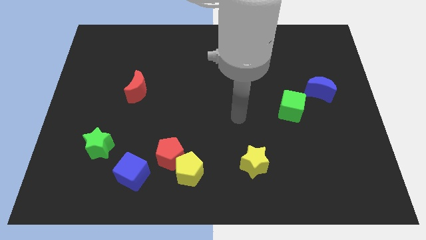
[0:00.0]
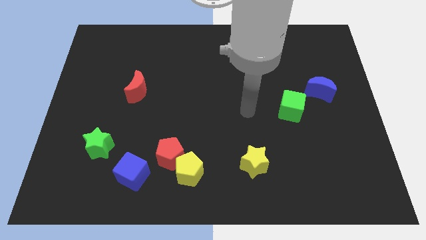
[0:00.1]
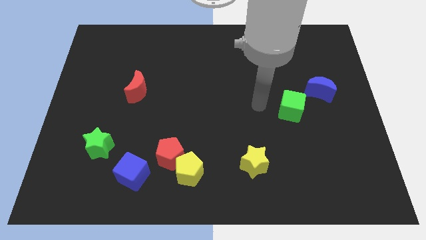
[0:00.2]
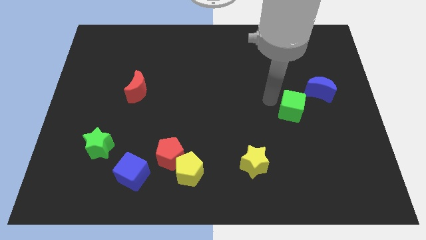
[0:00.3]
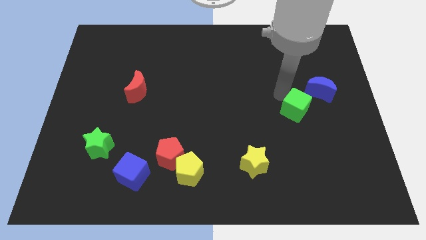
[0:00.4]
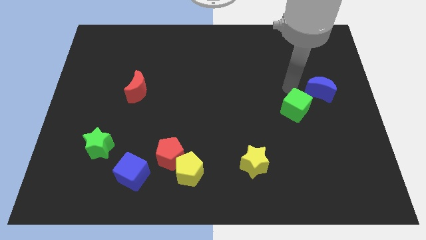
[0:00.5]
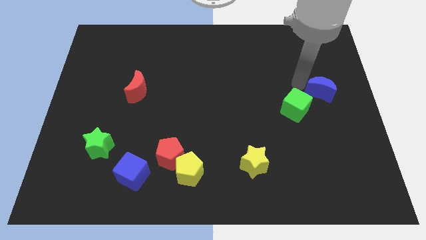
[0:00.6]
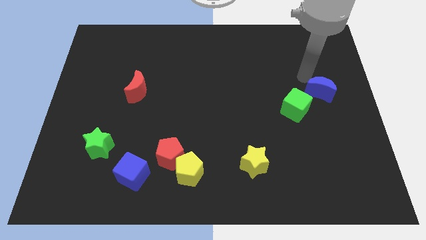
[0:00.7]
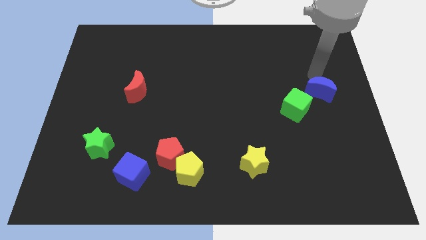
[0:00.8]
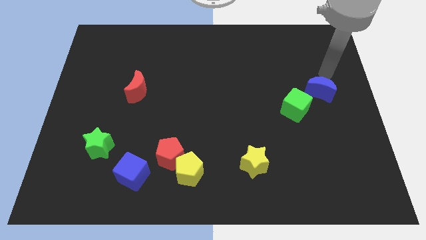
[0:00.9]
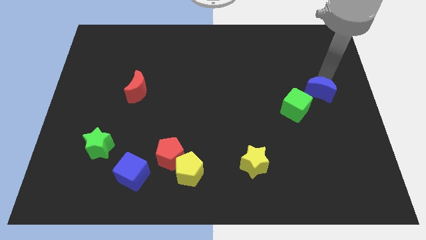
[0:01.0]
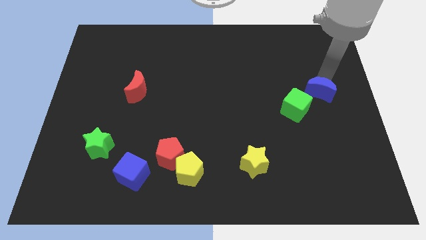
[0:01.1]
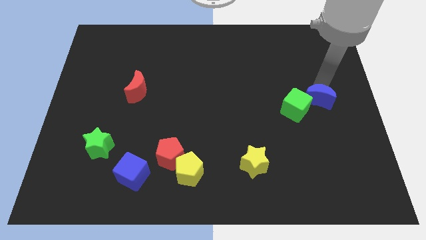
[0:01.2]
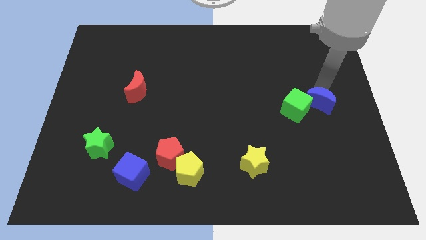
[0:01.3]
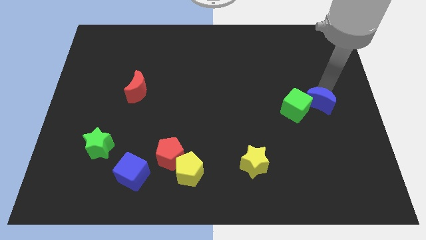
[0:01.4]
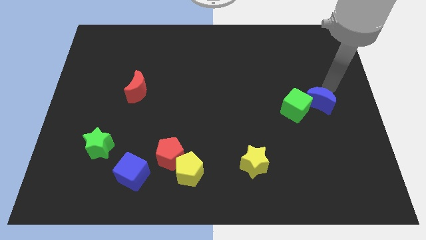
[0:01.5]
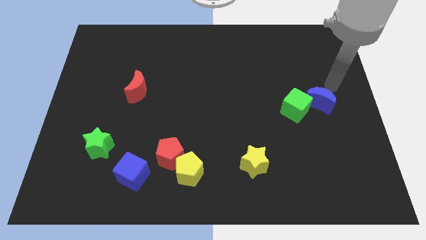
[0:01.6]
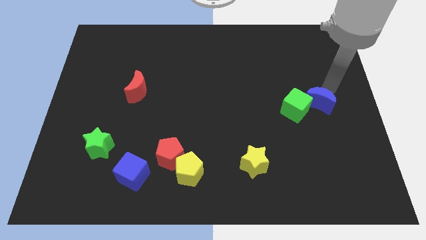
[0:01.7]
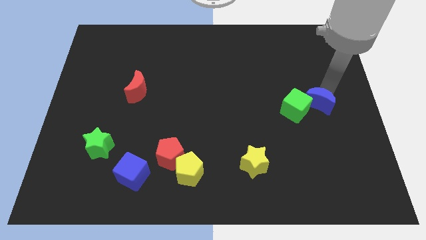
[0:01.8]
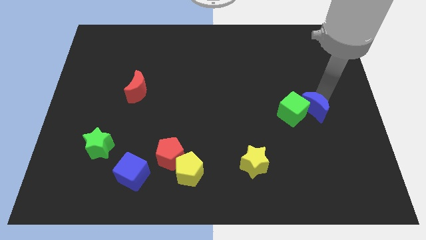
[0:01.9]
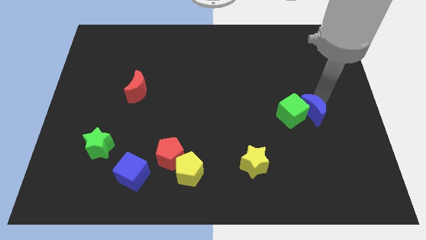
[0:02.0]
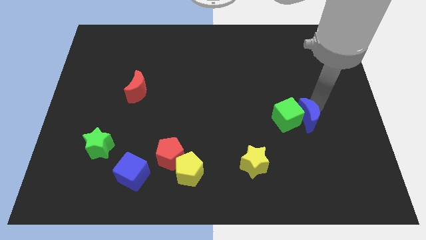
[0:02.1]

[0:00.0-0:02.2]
slightly move the blue moon down and to the left

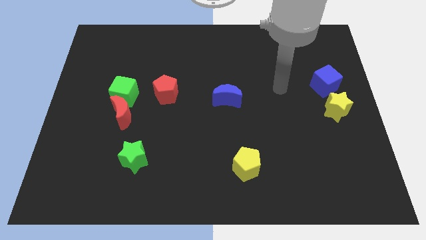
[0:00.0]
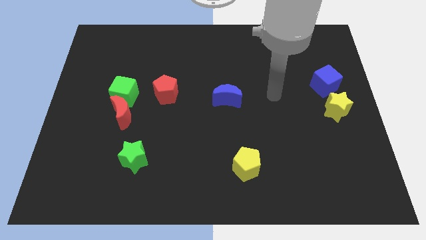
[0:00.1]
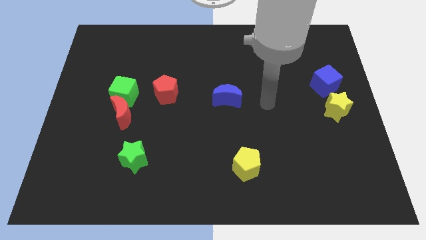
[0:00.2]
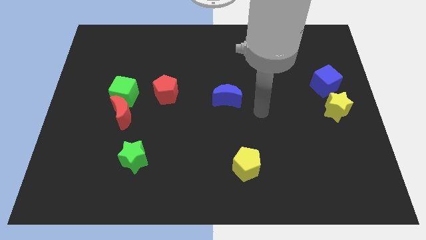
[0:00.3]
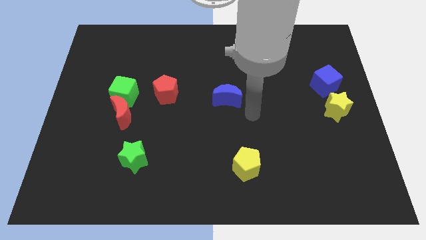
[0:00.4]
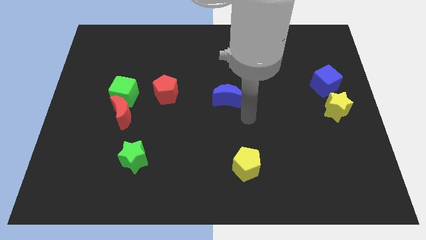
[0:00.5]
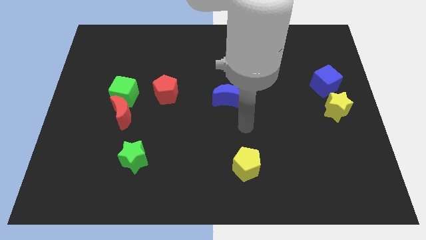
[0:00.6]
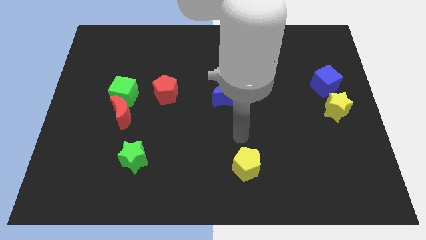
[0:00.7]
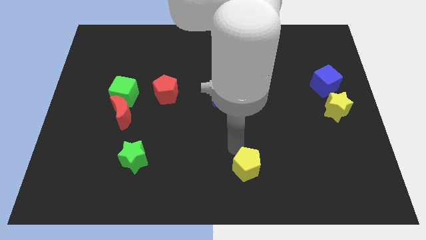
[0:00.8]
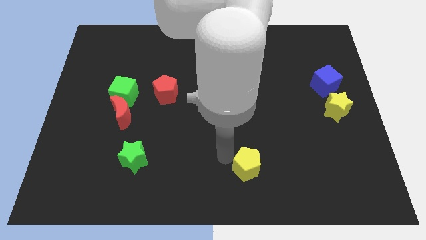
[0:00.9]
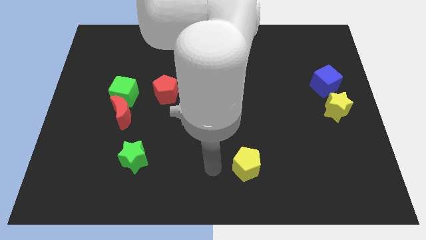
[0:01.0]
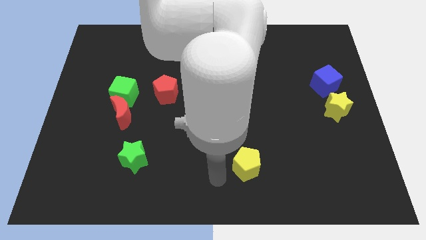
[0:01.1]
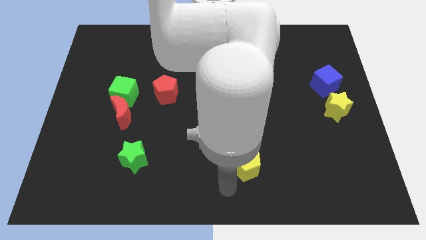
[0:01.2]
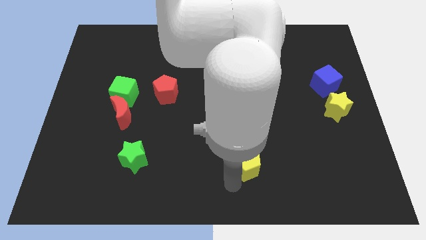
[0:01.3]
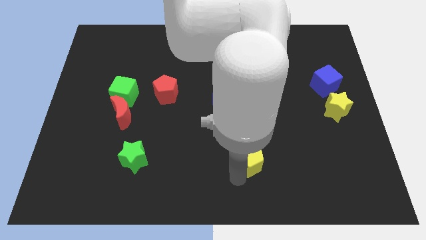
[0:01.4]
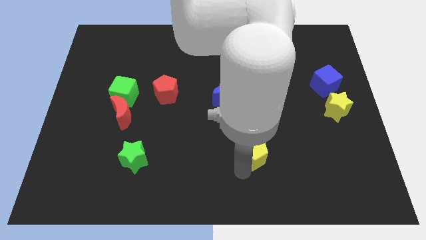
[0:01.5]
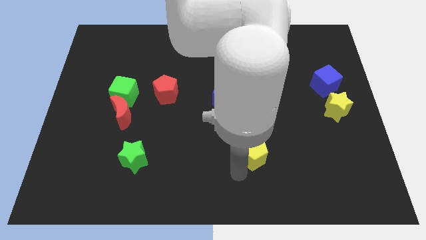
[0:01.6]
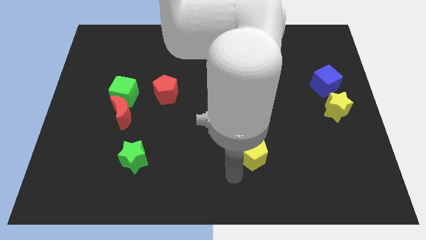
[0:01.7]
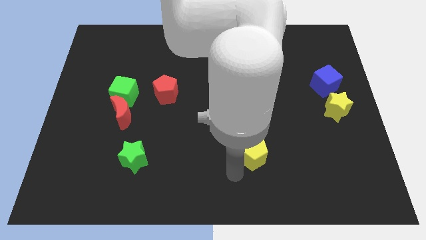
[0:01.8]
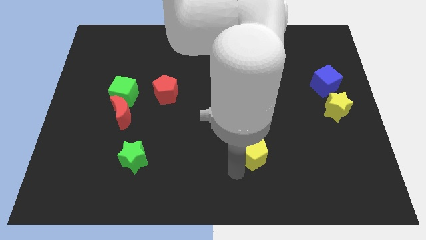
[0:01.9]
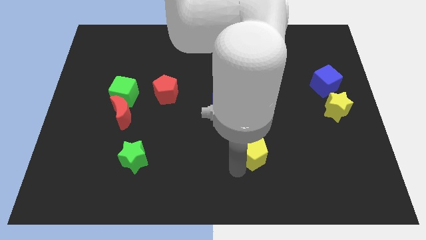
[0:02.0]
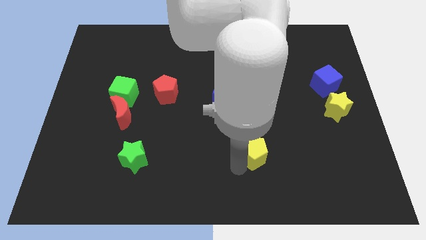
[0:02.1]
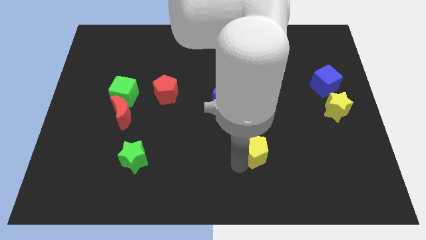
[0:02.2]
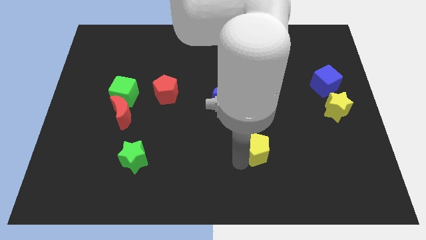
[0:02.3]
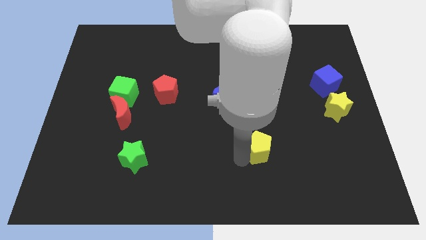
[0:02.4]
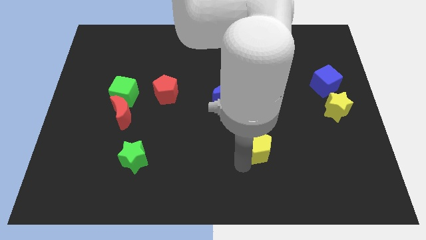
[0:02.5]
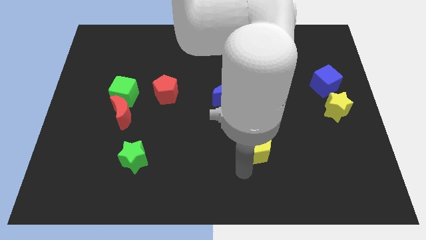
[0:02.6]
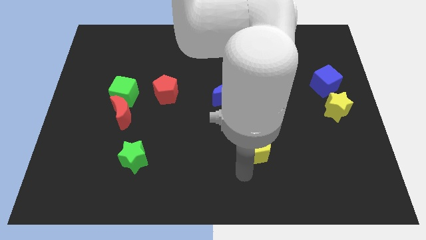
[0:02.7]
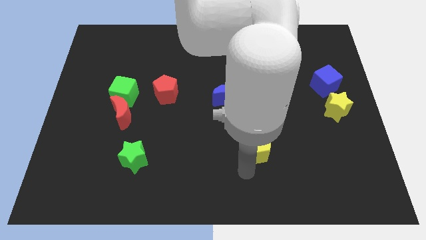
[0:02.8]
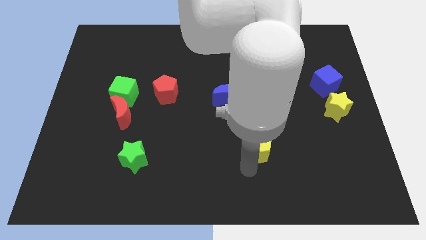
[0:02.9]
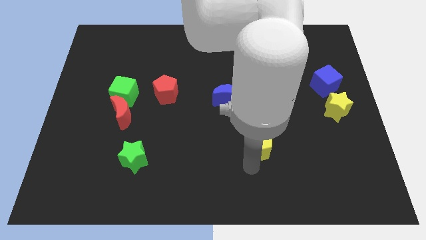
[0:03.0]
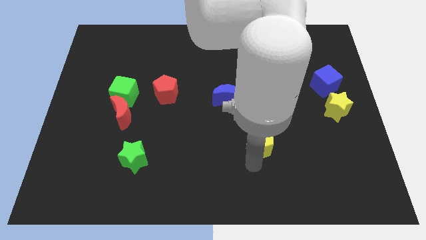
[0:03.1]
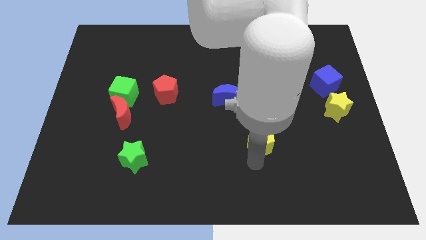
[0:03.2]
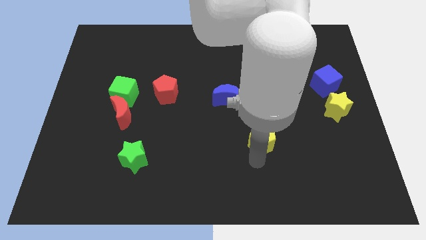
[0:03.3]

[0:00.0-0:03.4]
move the yellow pentagon slightly diagonally upwards and right

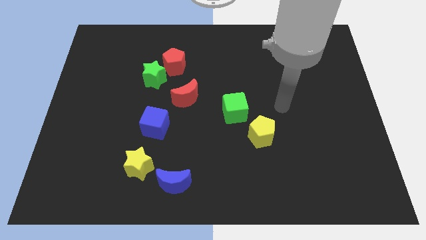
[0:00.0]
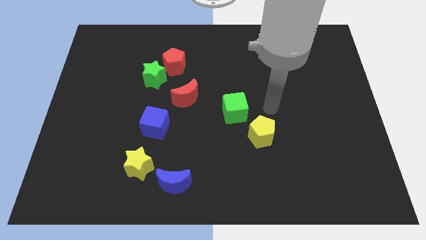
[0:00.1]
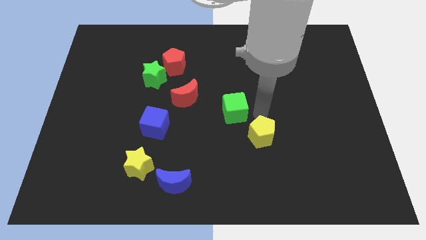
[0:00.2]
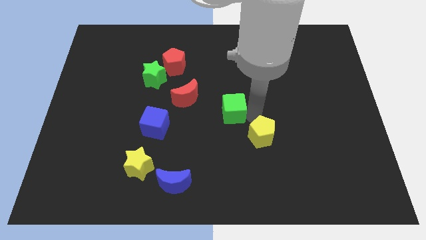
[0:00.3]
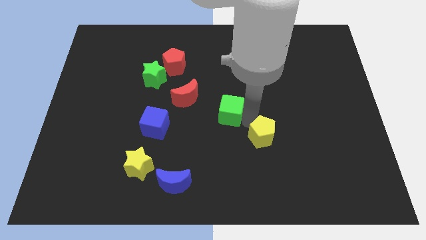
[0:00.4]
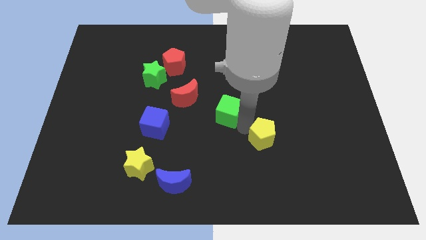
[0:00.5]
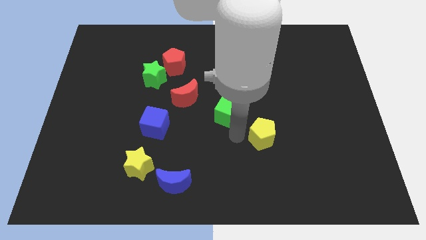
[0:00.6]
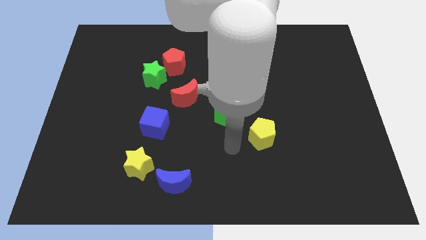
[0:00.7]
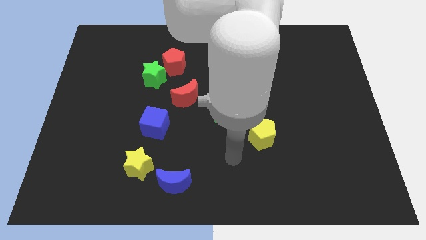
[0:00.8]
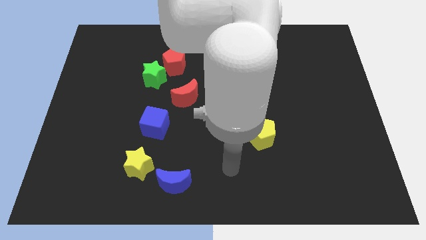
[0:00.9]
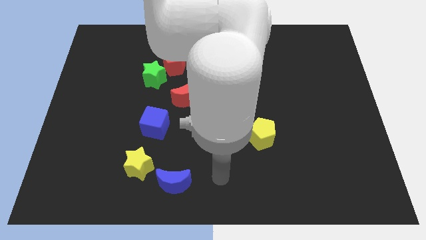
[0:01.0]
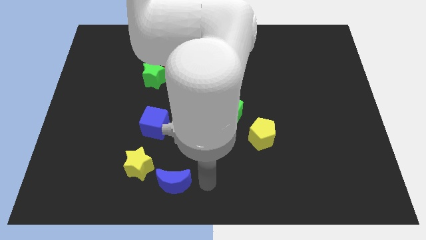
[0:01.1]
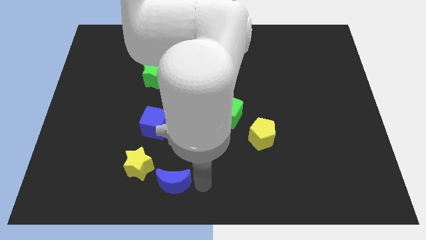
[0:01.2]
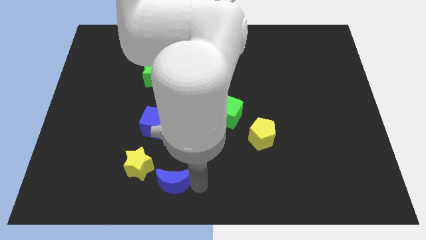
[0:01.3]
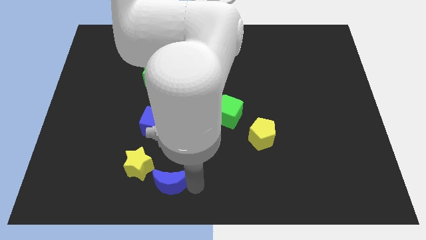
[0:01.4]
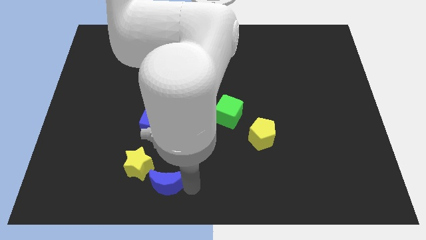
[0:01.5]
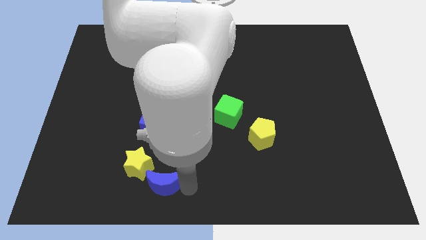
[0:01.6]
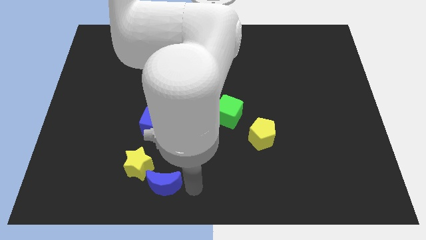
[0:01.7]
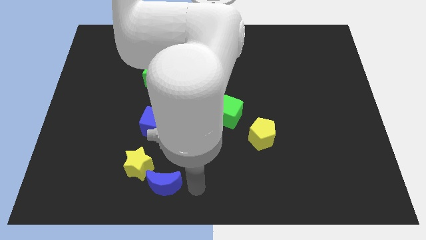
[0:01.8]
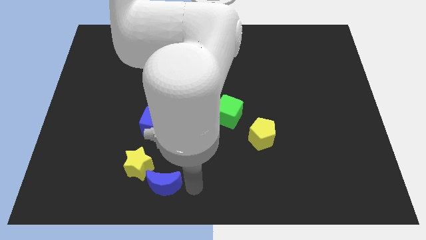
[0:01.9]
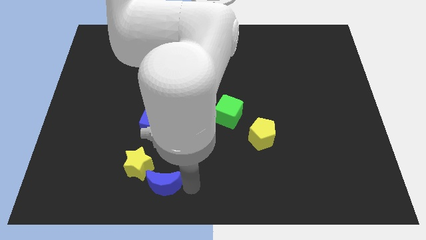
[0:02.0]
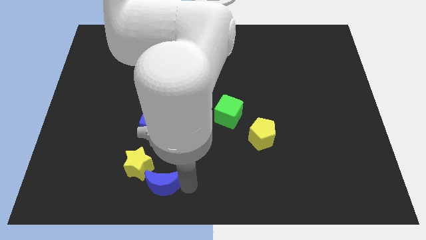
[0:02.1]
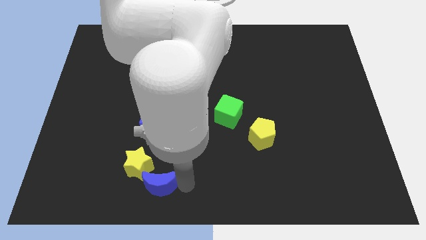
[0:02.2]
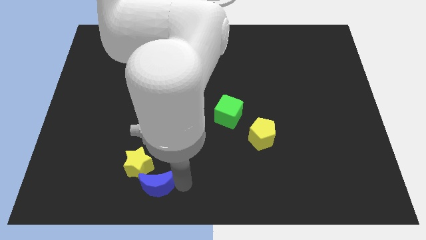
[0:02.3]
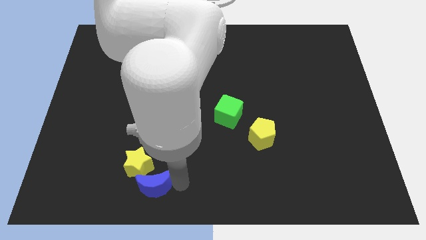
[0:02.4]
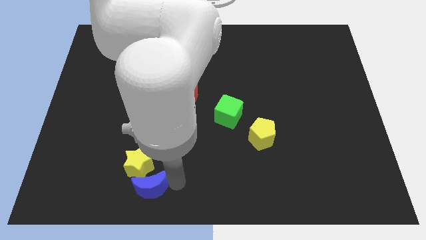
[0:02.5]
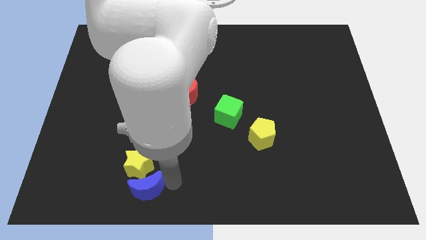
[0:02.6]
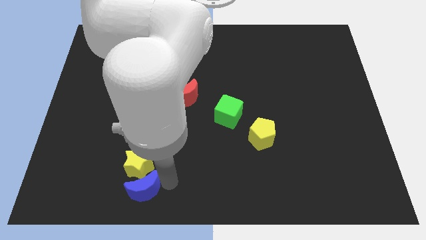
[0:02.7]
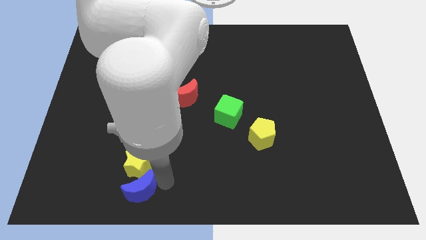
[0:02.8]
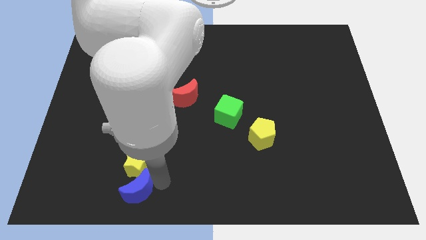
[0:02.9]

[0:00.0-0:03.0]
push the blue moon a little left
